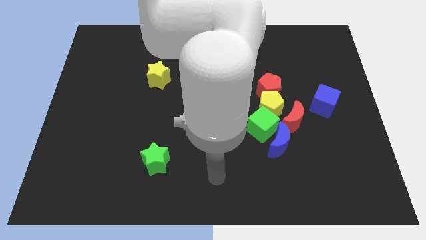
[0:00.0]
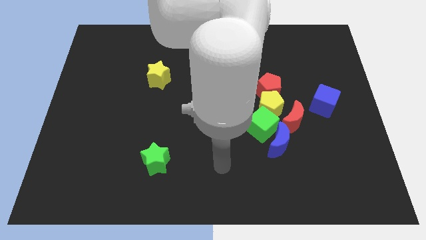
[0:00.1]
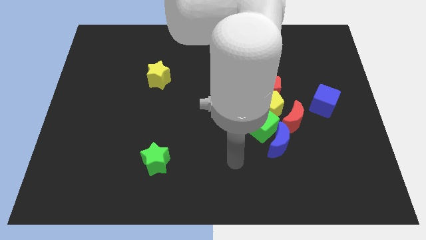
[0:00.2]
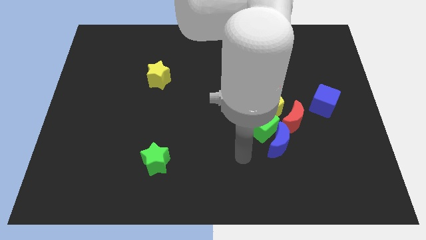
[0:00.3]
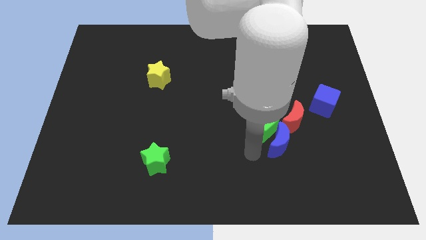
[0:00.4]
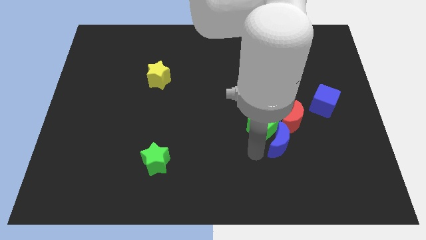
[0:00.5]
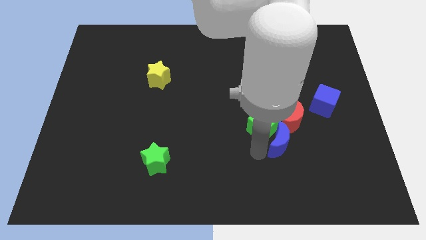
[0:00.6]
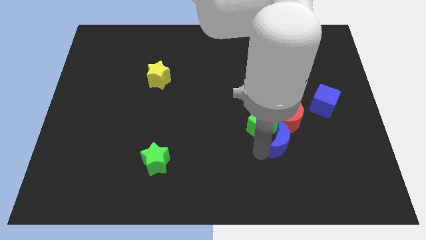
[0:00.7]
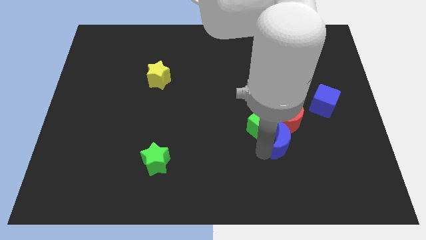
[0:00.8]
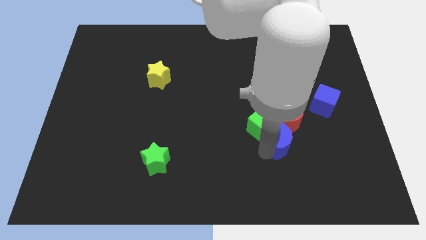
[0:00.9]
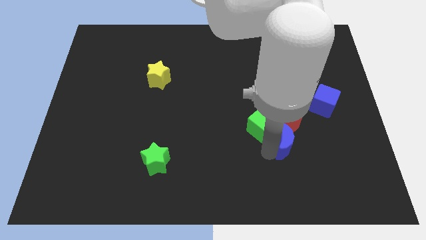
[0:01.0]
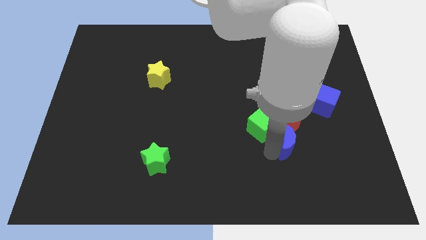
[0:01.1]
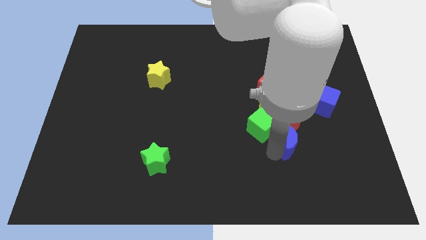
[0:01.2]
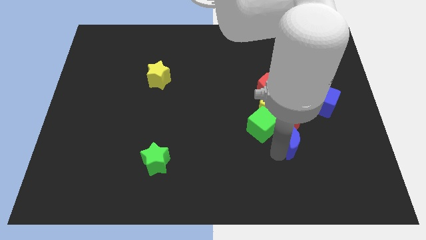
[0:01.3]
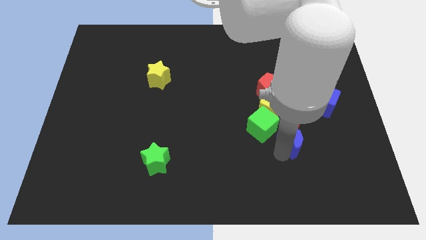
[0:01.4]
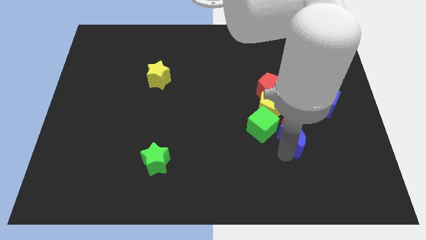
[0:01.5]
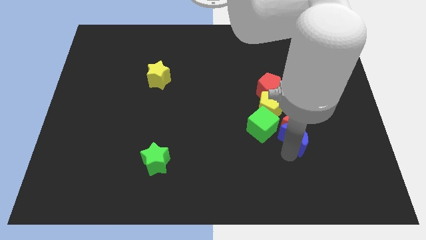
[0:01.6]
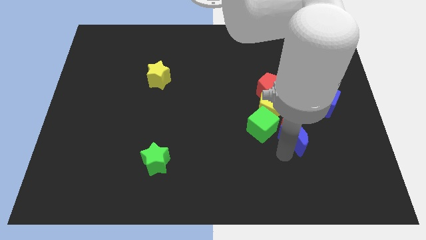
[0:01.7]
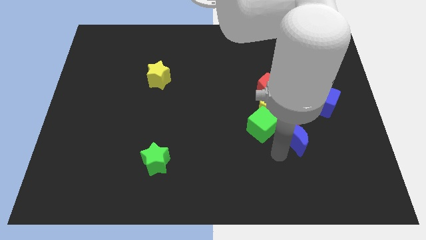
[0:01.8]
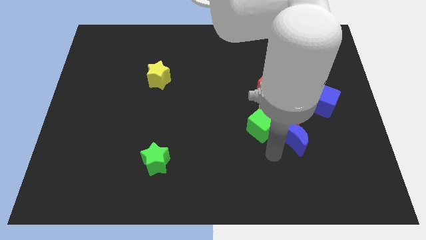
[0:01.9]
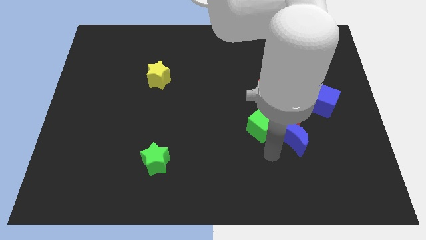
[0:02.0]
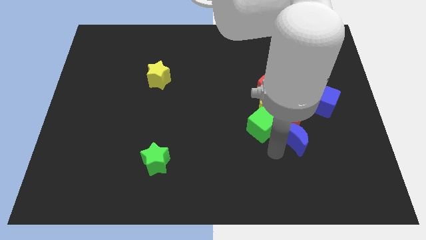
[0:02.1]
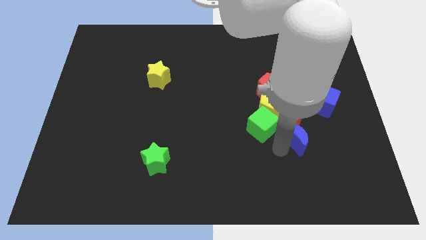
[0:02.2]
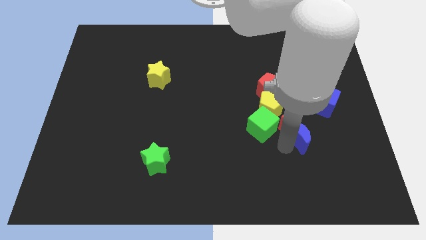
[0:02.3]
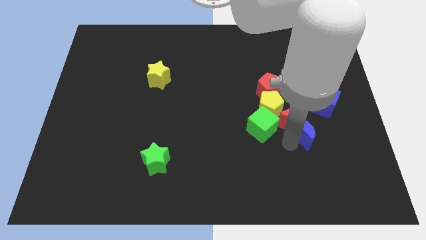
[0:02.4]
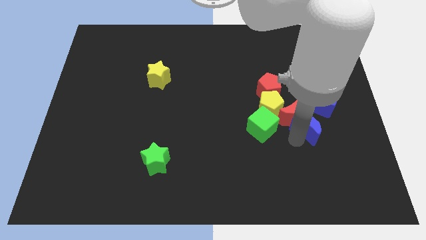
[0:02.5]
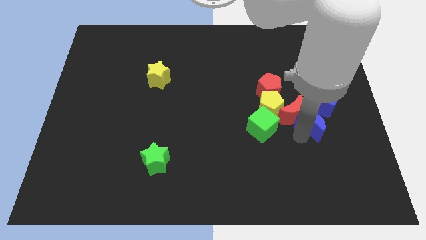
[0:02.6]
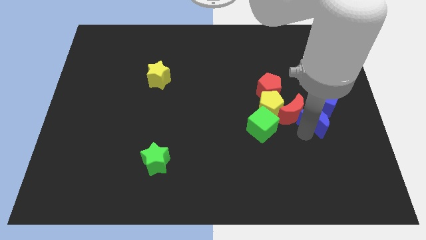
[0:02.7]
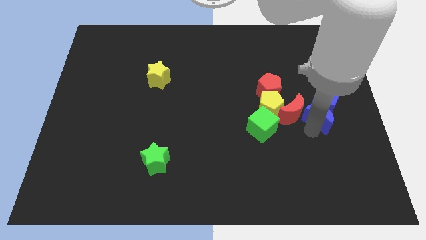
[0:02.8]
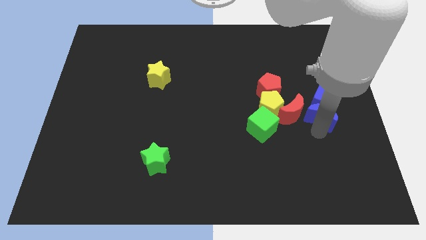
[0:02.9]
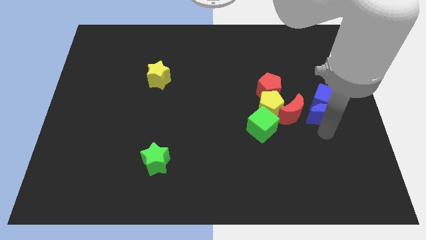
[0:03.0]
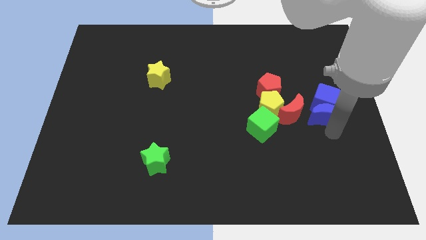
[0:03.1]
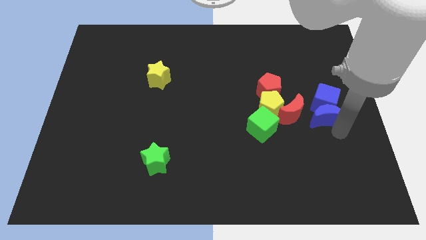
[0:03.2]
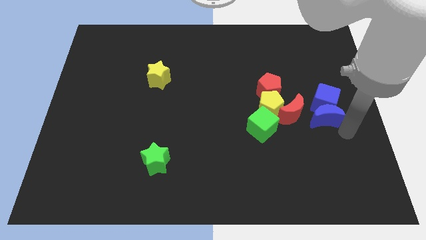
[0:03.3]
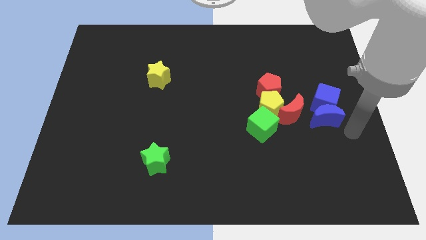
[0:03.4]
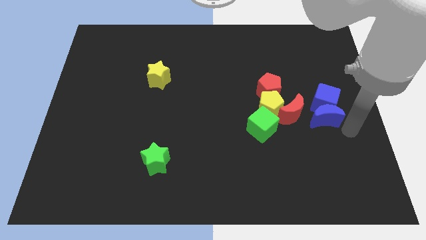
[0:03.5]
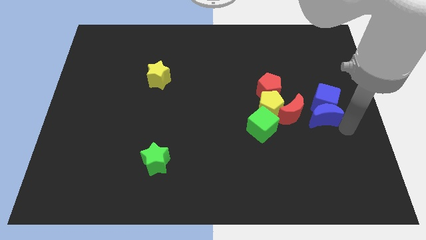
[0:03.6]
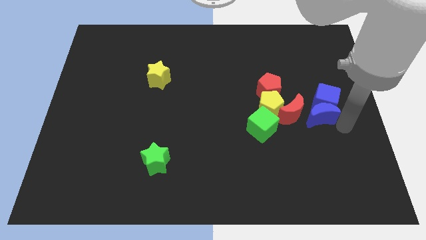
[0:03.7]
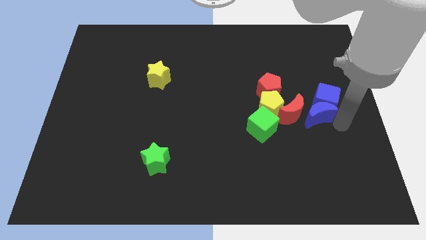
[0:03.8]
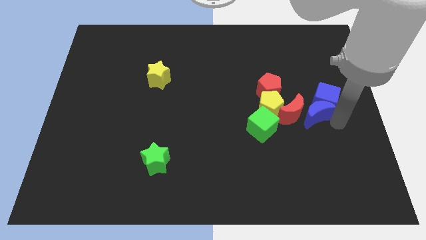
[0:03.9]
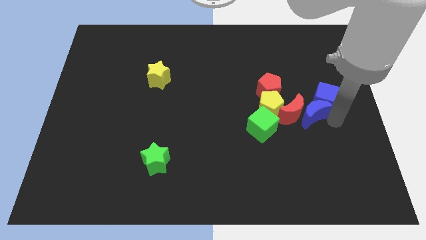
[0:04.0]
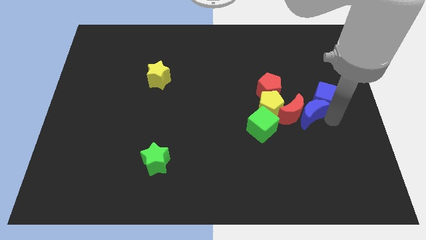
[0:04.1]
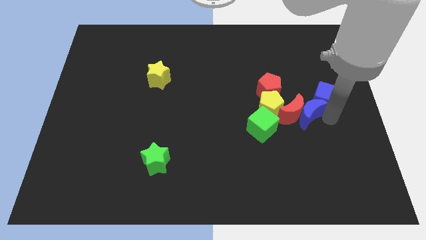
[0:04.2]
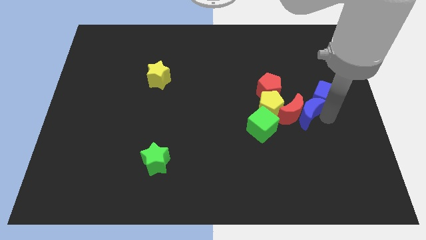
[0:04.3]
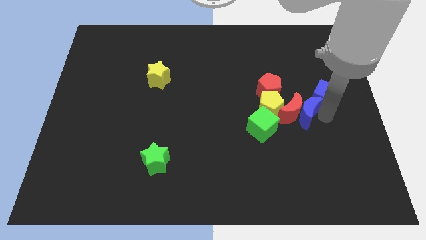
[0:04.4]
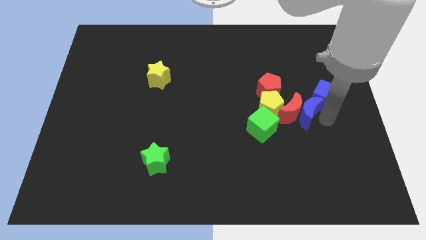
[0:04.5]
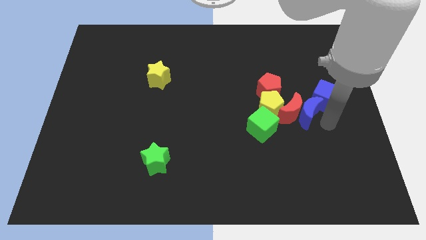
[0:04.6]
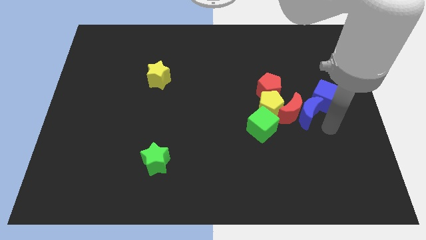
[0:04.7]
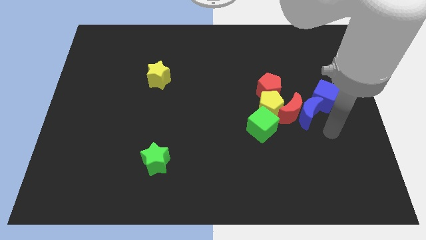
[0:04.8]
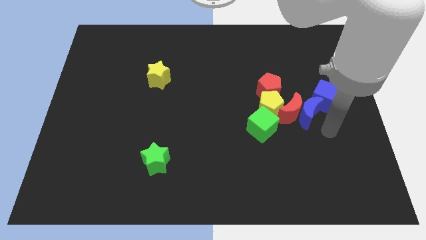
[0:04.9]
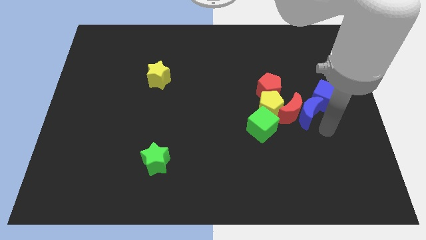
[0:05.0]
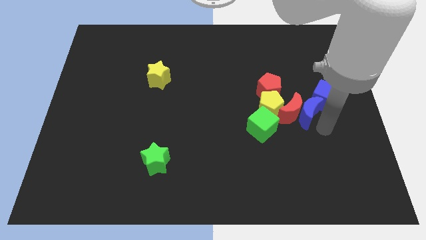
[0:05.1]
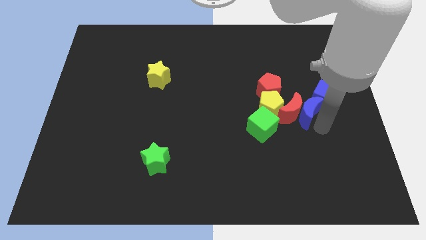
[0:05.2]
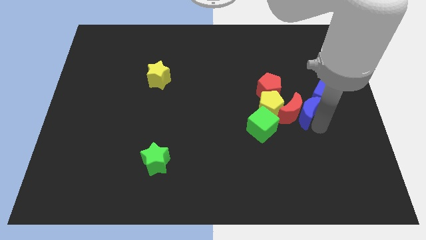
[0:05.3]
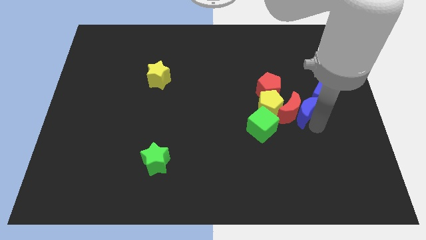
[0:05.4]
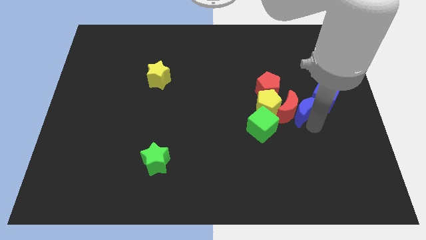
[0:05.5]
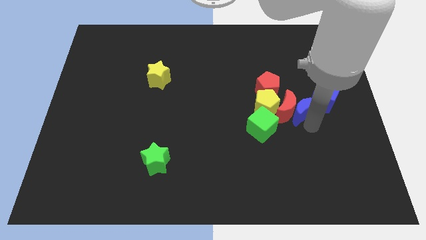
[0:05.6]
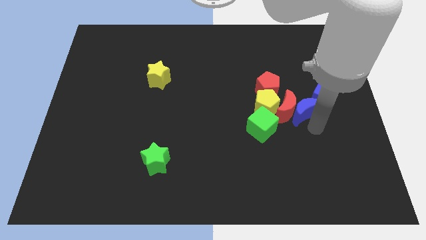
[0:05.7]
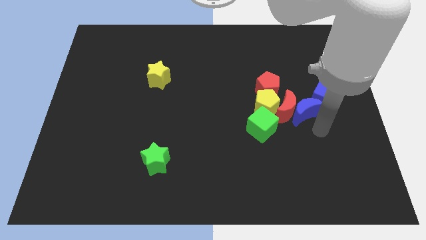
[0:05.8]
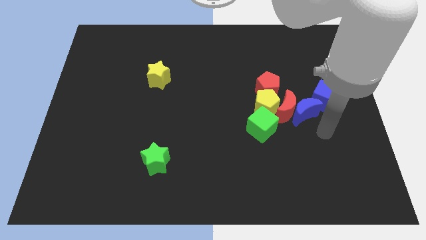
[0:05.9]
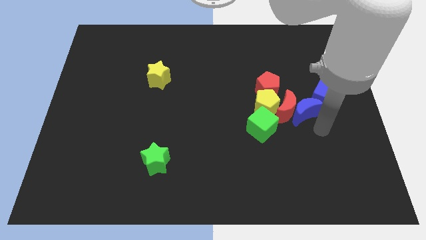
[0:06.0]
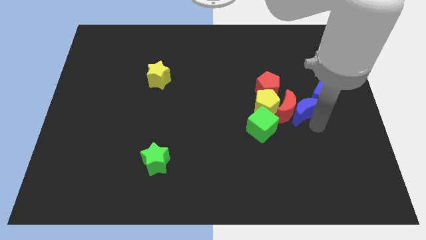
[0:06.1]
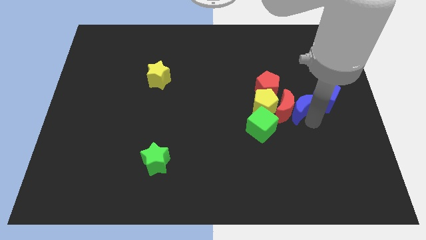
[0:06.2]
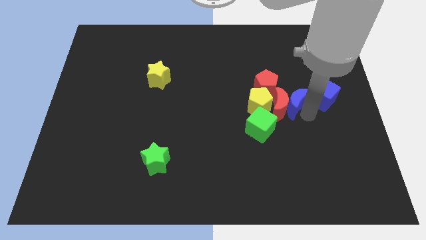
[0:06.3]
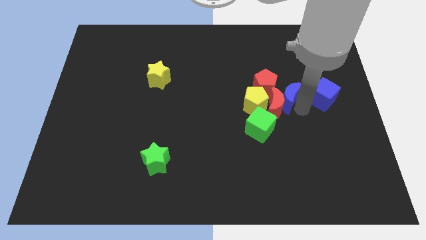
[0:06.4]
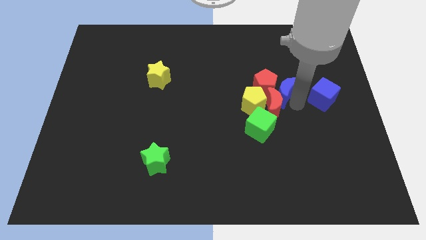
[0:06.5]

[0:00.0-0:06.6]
put the blue moon close to the red pentagon

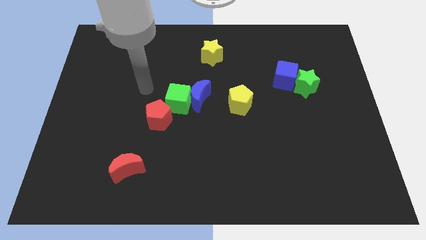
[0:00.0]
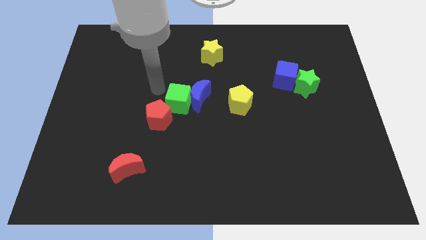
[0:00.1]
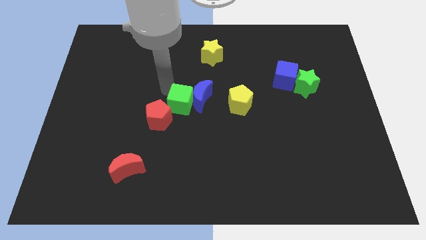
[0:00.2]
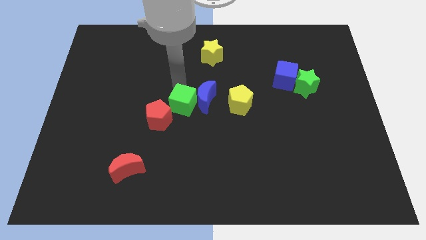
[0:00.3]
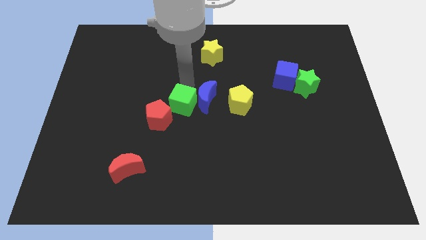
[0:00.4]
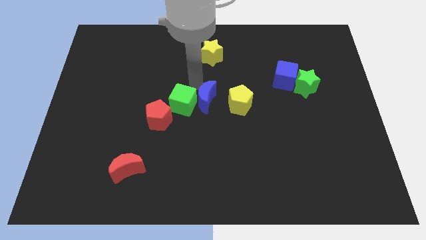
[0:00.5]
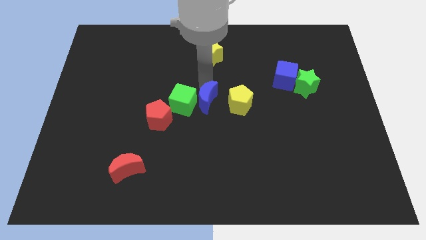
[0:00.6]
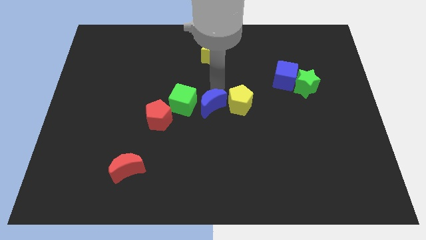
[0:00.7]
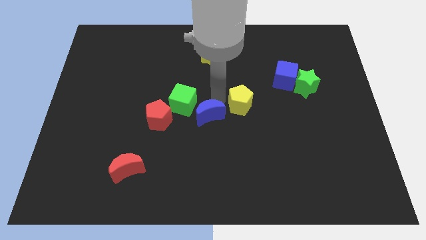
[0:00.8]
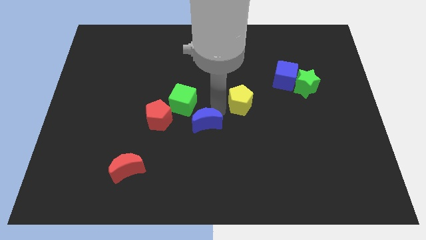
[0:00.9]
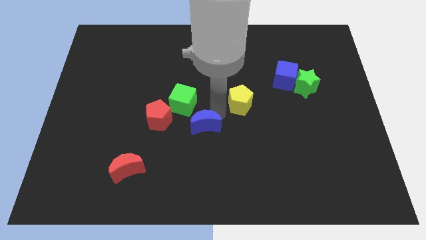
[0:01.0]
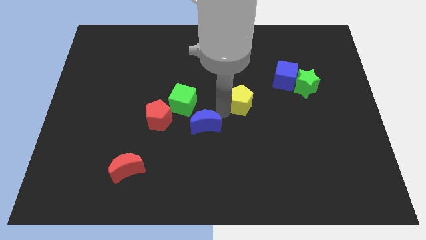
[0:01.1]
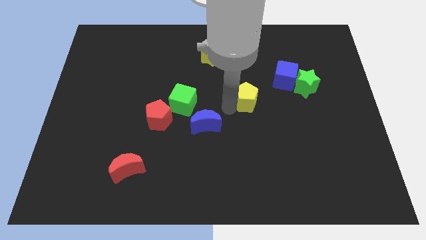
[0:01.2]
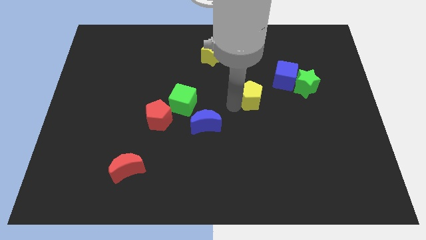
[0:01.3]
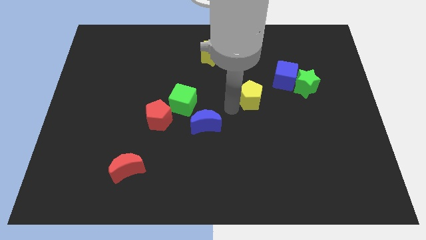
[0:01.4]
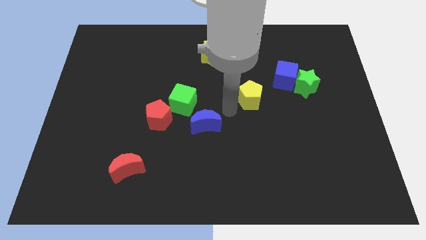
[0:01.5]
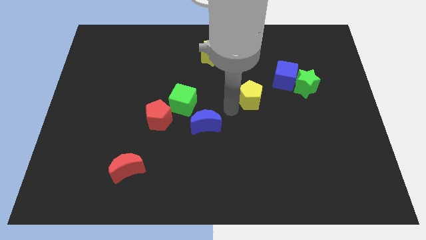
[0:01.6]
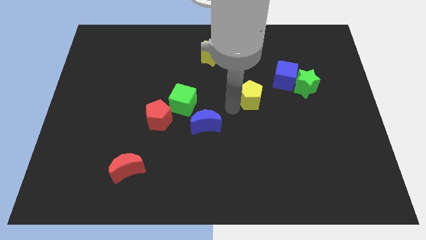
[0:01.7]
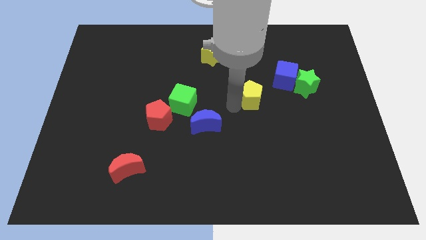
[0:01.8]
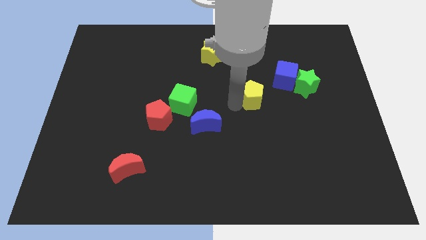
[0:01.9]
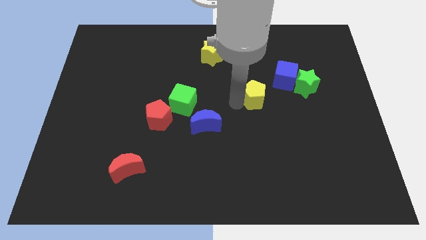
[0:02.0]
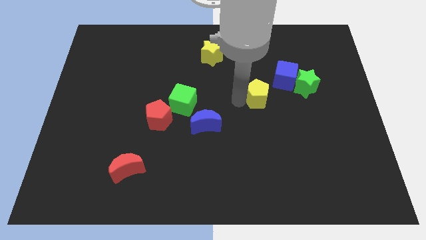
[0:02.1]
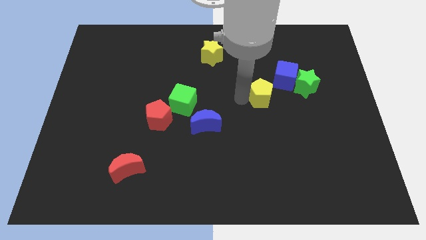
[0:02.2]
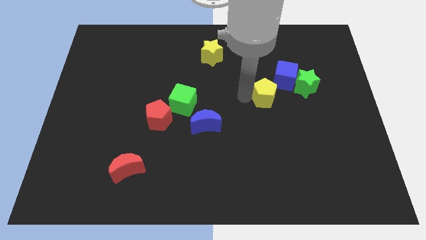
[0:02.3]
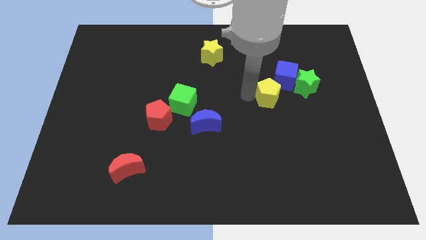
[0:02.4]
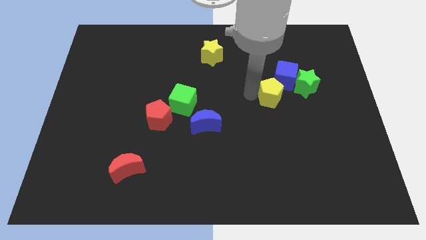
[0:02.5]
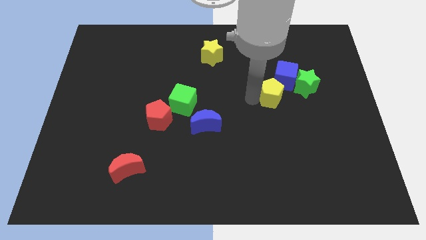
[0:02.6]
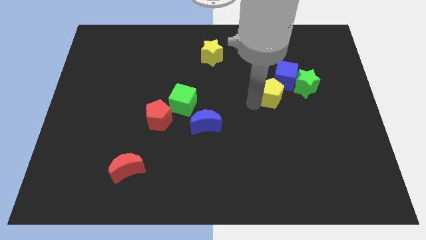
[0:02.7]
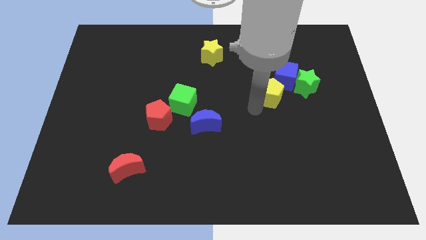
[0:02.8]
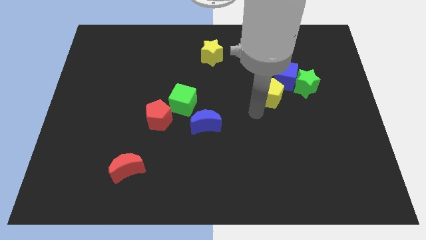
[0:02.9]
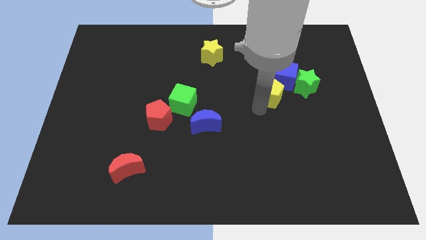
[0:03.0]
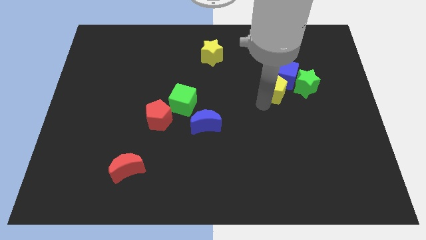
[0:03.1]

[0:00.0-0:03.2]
move the yellow pentagon towards the blue cube
